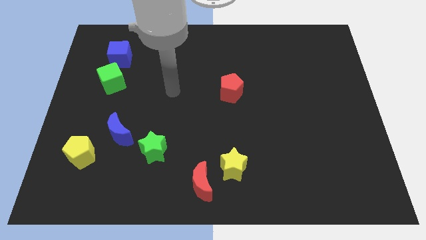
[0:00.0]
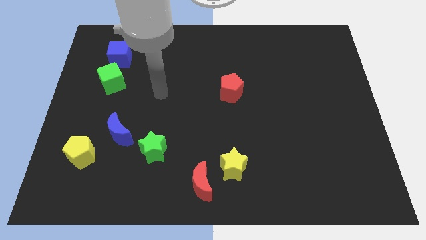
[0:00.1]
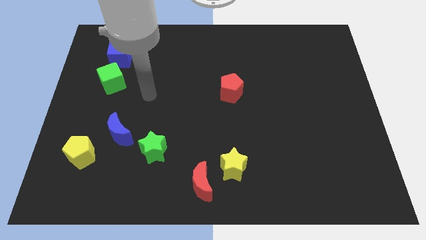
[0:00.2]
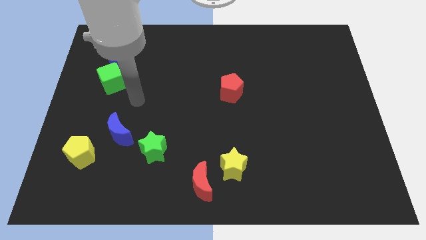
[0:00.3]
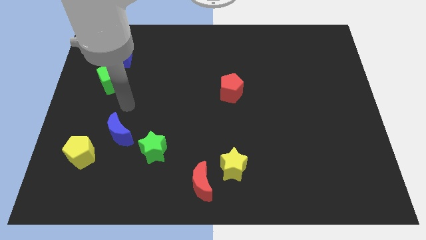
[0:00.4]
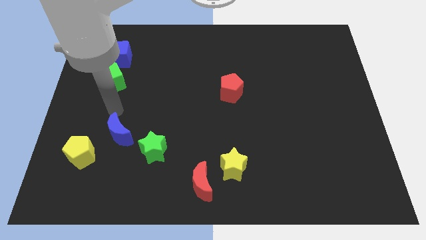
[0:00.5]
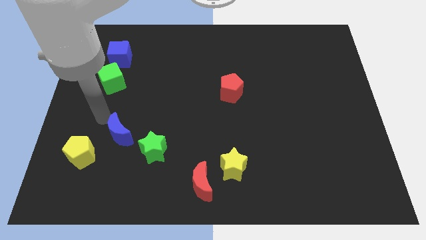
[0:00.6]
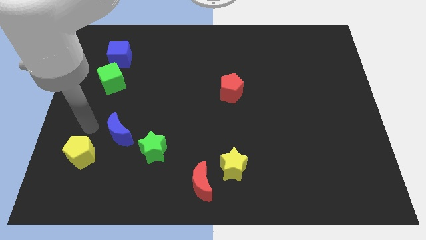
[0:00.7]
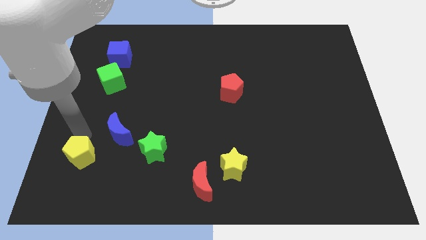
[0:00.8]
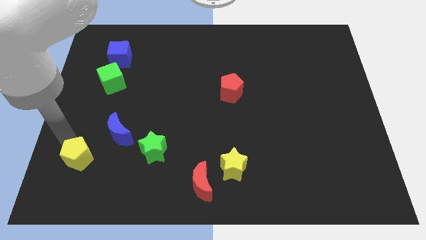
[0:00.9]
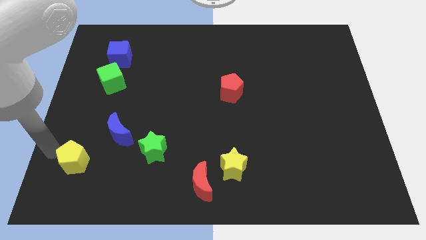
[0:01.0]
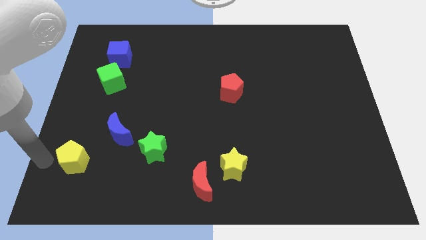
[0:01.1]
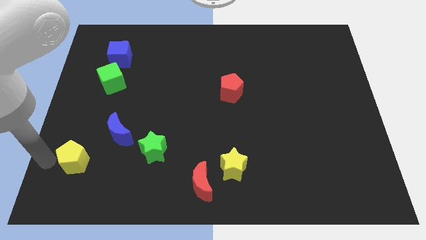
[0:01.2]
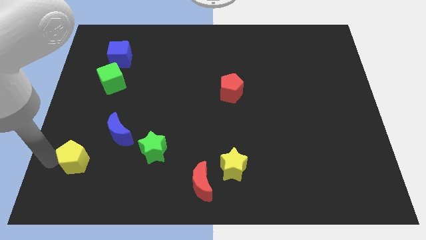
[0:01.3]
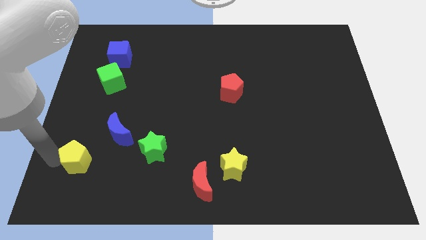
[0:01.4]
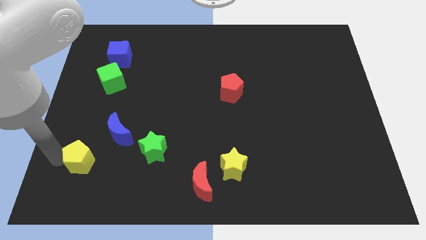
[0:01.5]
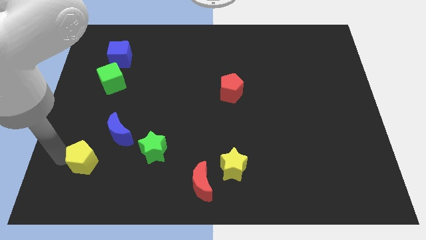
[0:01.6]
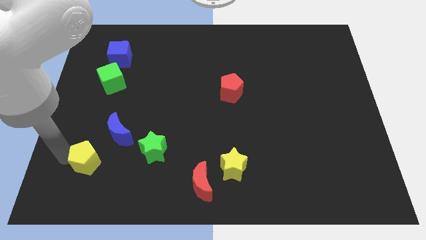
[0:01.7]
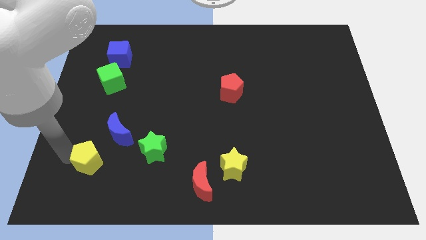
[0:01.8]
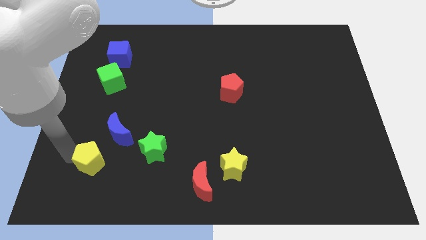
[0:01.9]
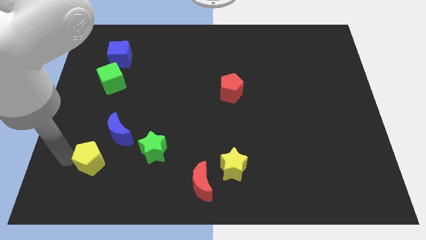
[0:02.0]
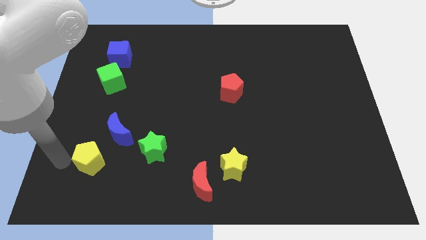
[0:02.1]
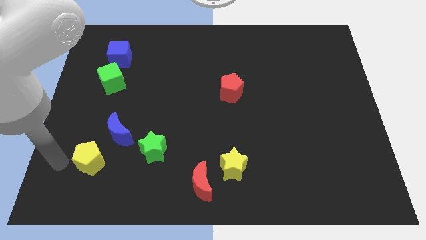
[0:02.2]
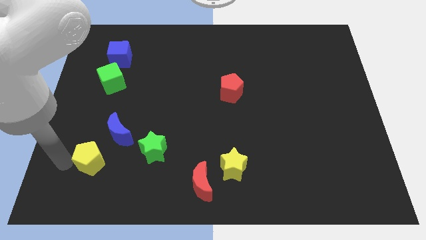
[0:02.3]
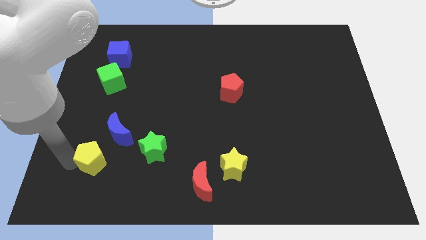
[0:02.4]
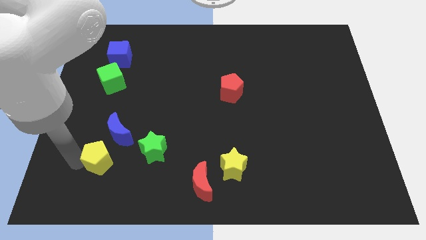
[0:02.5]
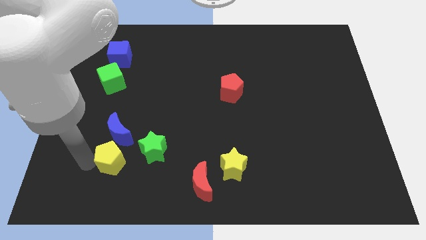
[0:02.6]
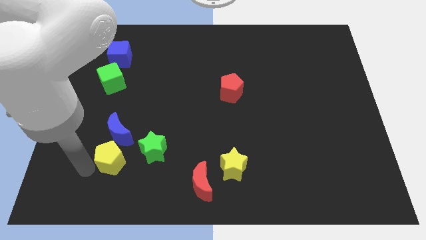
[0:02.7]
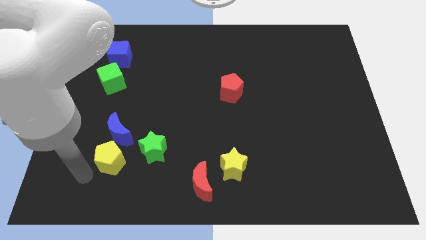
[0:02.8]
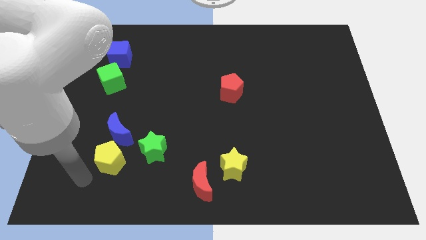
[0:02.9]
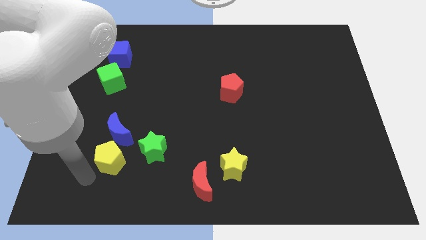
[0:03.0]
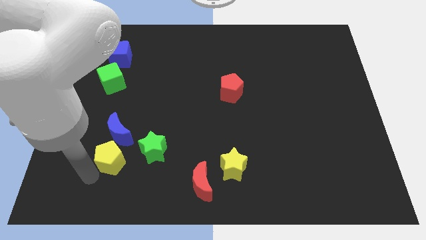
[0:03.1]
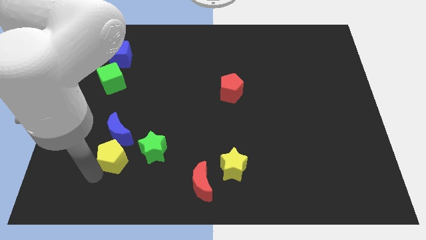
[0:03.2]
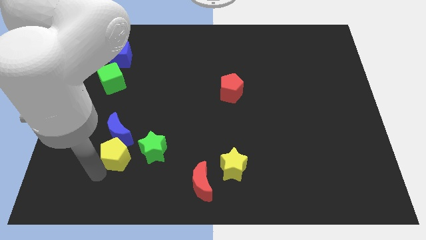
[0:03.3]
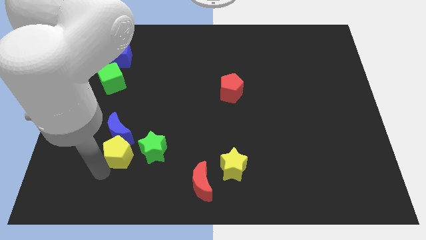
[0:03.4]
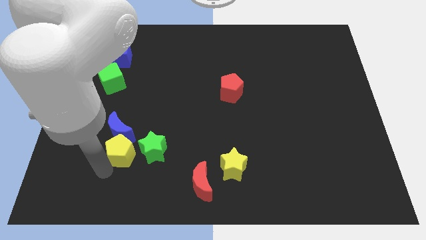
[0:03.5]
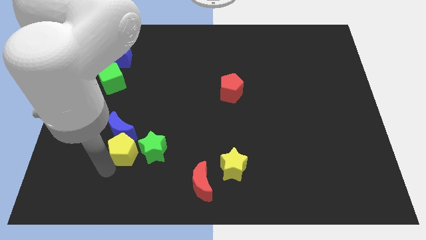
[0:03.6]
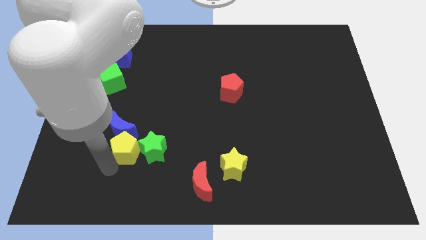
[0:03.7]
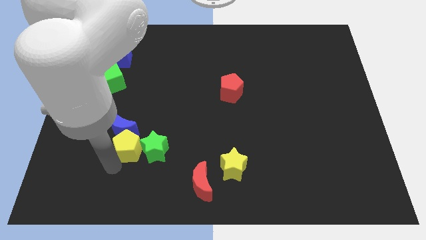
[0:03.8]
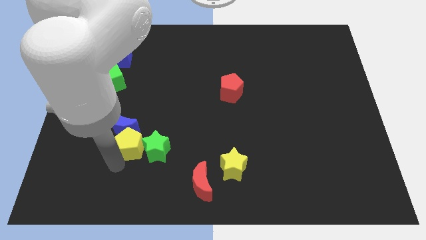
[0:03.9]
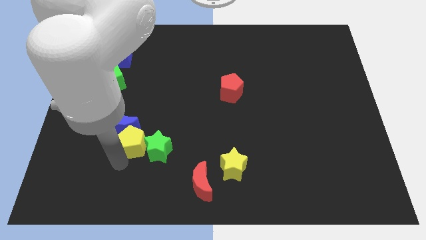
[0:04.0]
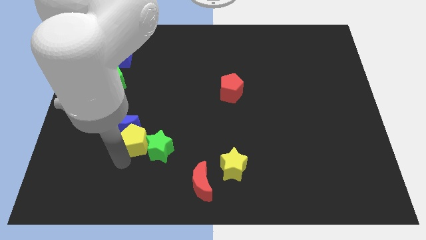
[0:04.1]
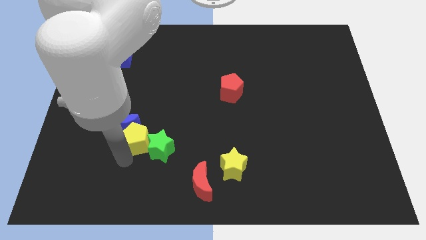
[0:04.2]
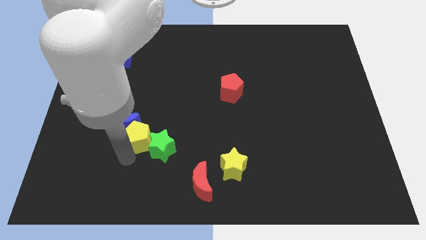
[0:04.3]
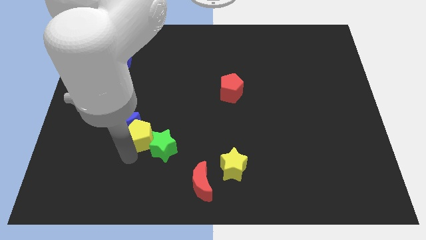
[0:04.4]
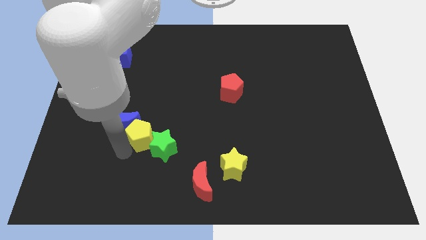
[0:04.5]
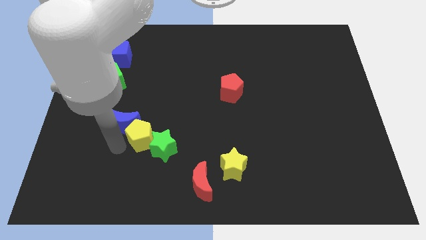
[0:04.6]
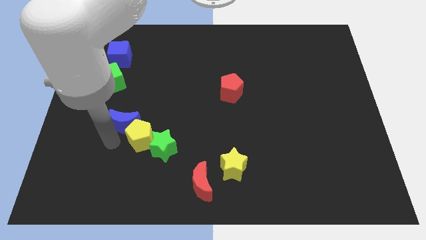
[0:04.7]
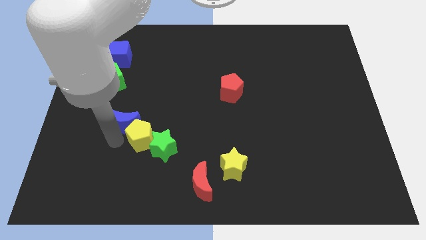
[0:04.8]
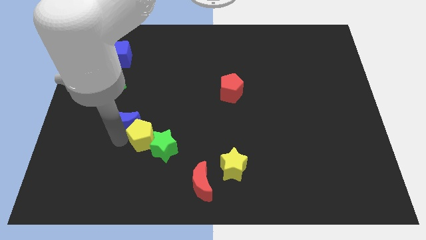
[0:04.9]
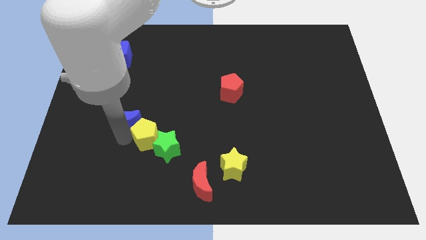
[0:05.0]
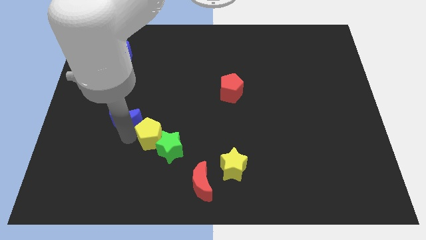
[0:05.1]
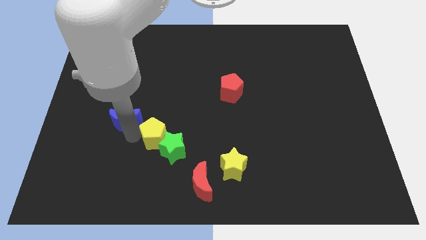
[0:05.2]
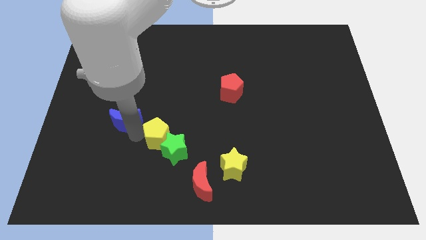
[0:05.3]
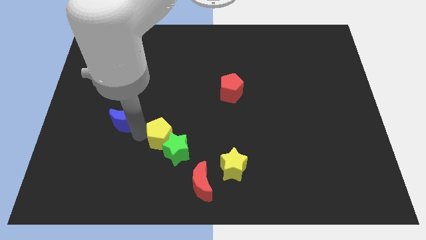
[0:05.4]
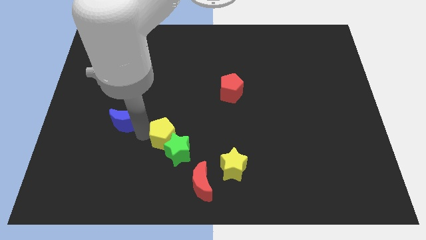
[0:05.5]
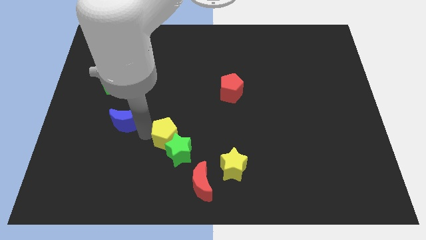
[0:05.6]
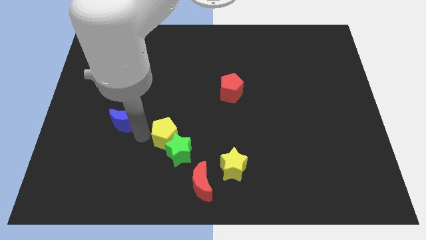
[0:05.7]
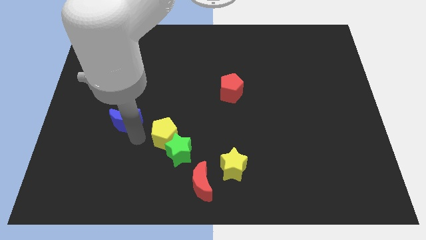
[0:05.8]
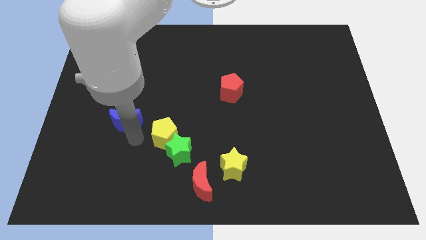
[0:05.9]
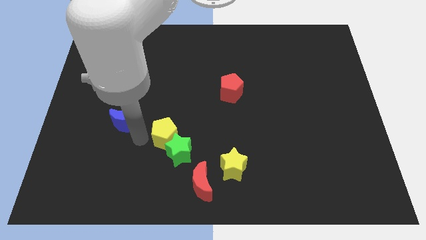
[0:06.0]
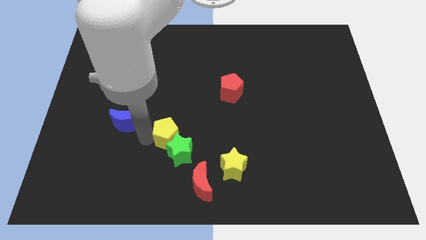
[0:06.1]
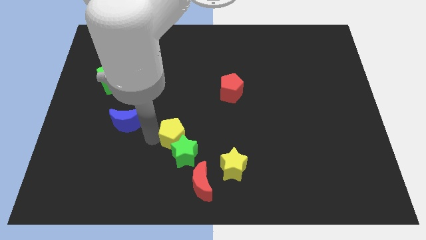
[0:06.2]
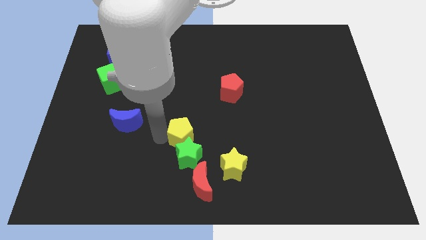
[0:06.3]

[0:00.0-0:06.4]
slide the yellow pentagon above the red moon

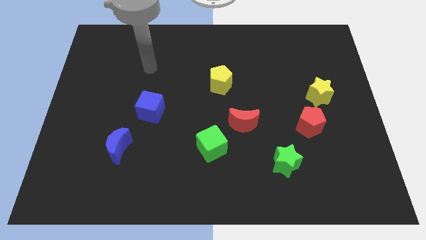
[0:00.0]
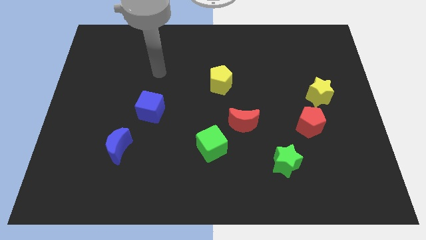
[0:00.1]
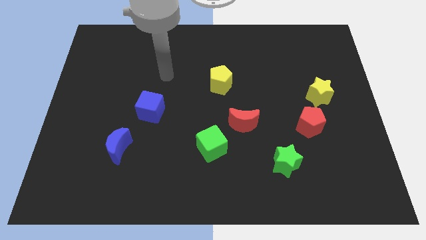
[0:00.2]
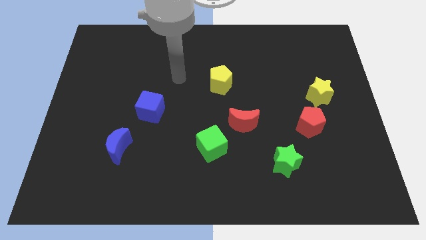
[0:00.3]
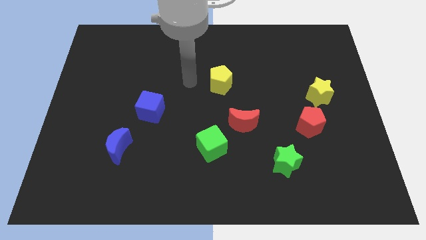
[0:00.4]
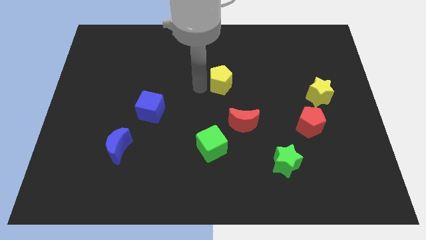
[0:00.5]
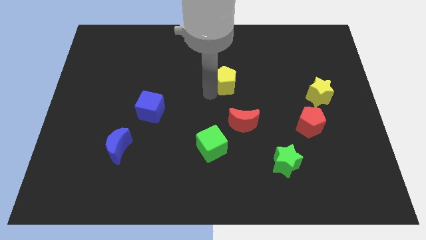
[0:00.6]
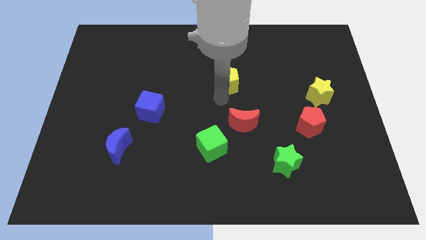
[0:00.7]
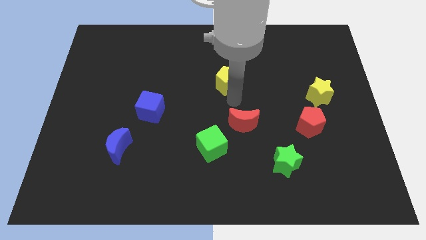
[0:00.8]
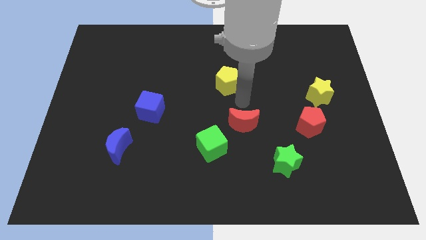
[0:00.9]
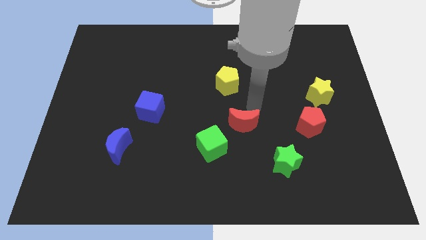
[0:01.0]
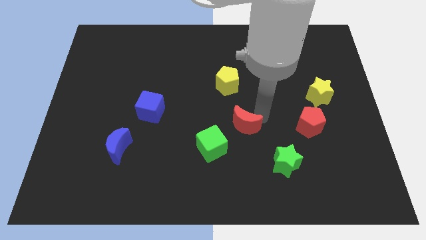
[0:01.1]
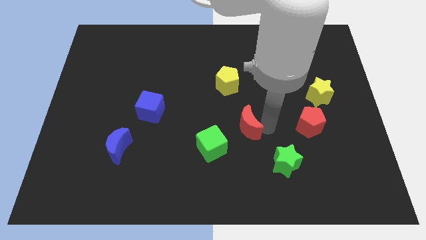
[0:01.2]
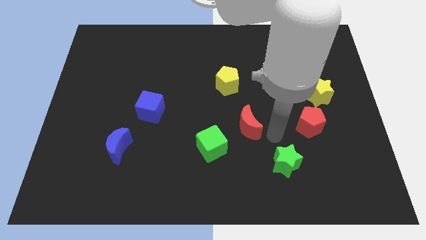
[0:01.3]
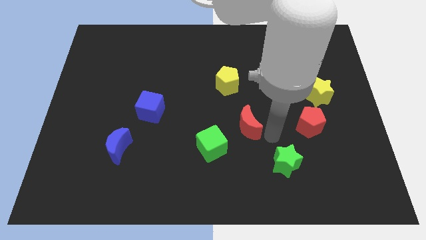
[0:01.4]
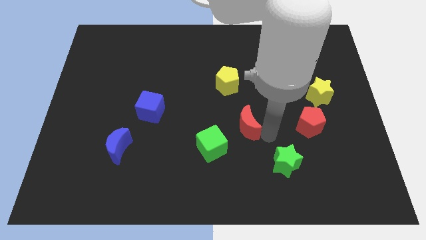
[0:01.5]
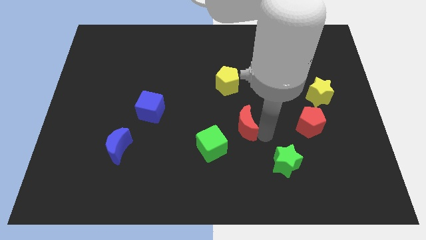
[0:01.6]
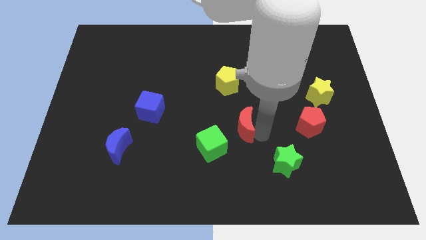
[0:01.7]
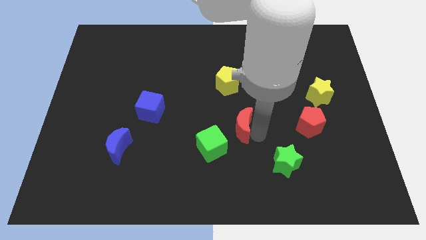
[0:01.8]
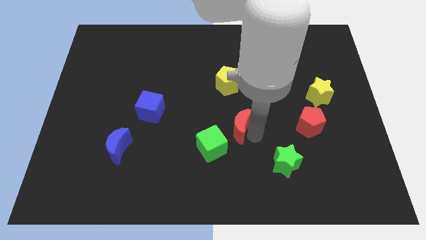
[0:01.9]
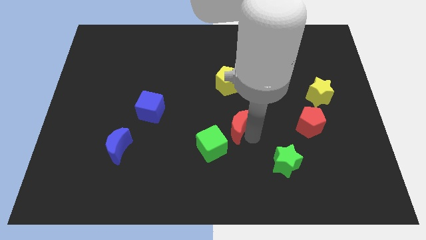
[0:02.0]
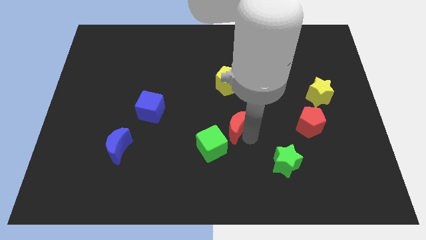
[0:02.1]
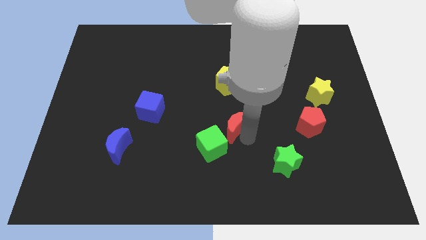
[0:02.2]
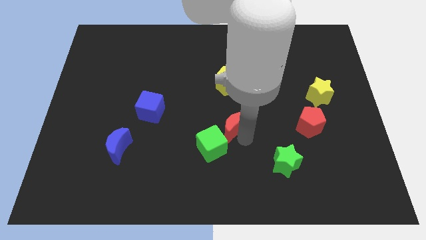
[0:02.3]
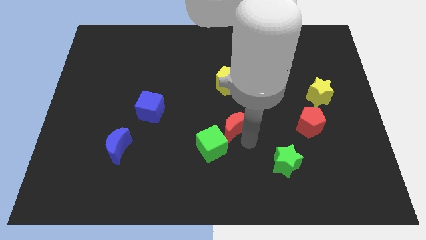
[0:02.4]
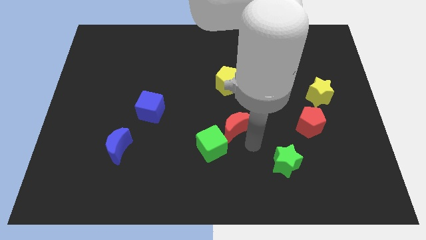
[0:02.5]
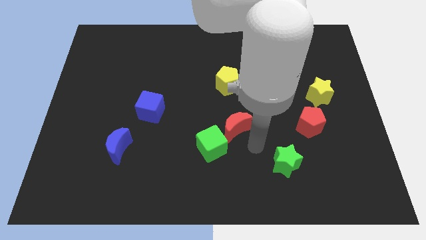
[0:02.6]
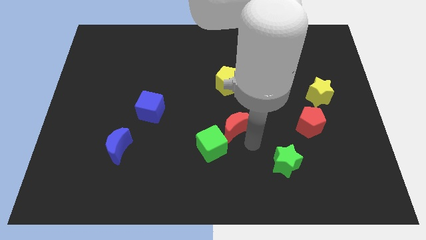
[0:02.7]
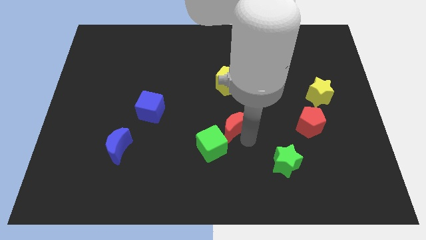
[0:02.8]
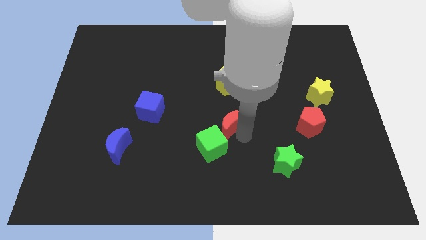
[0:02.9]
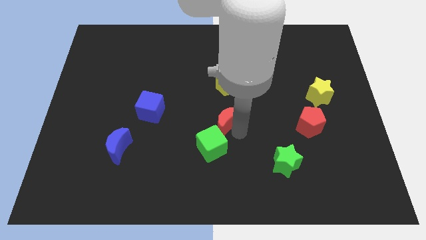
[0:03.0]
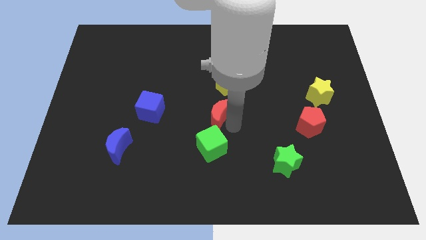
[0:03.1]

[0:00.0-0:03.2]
move the red moon to the right of the blue cube
